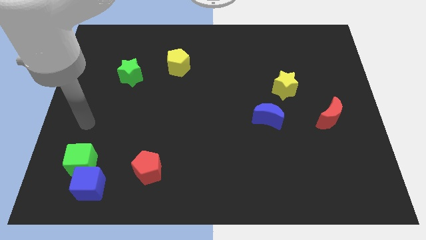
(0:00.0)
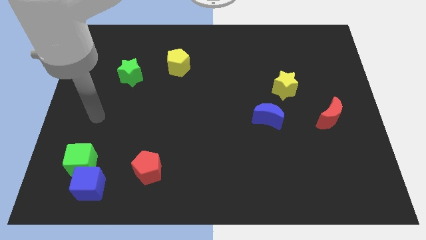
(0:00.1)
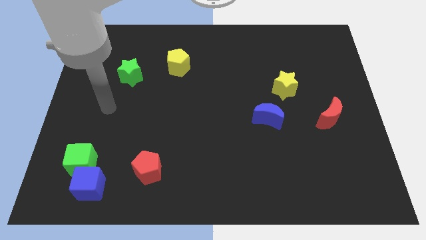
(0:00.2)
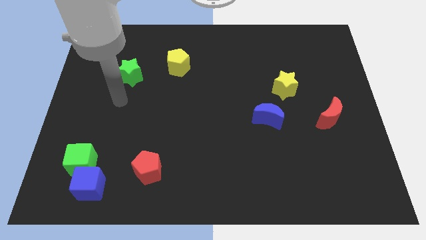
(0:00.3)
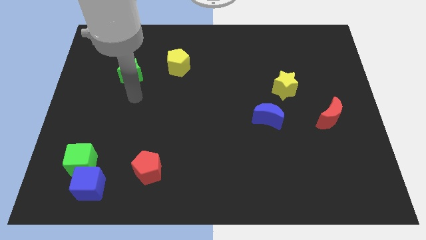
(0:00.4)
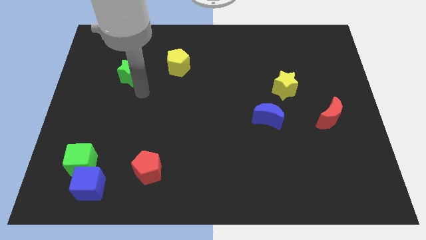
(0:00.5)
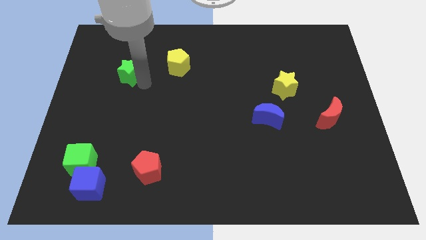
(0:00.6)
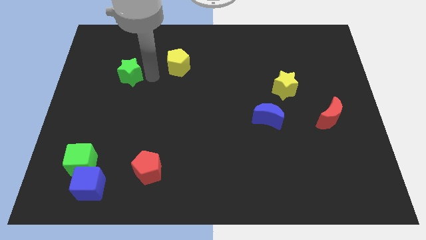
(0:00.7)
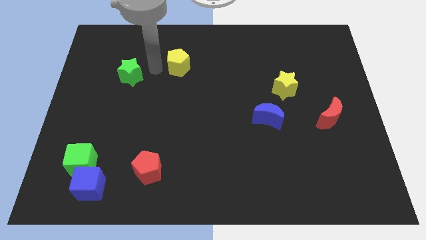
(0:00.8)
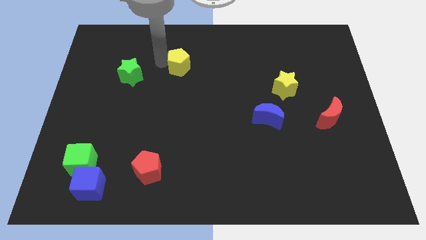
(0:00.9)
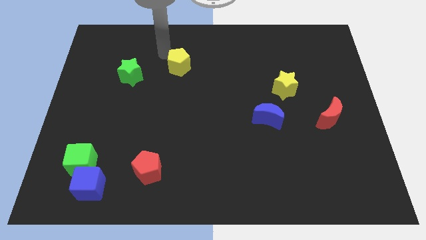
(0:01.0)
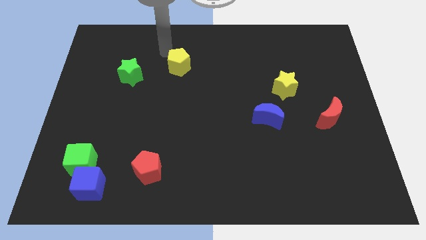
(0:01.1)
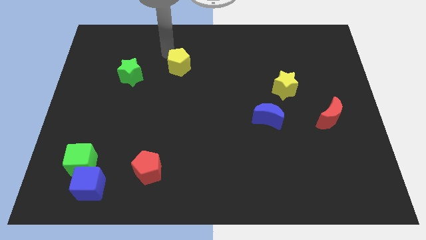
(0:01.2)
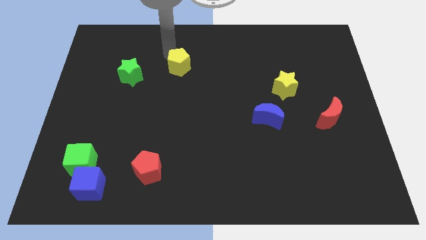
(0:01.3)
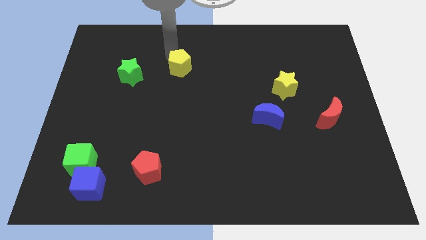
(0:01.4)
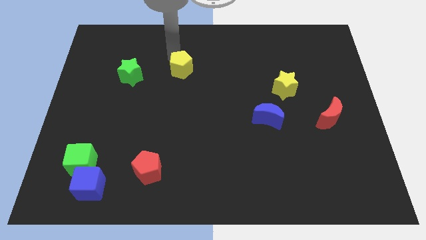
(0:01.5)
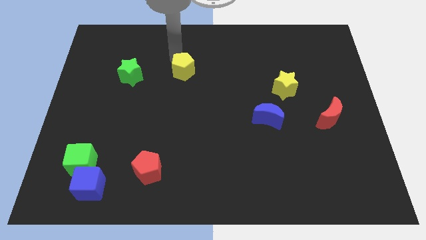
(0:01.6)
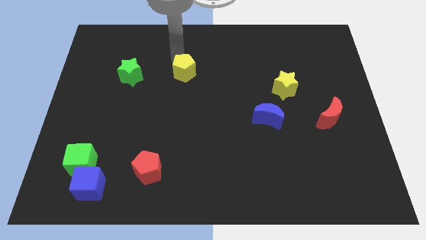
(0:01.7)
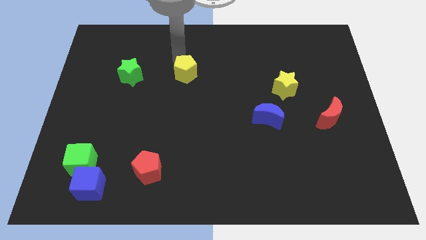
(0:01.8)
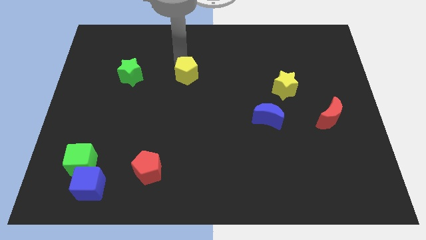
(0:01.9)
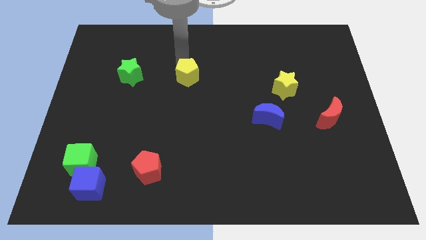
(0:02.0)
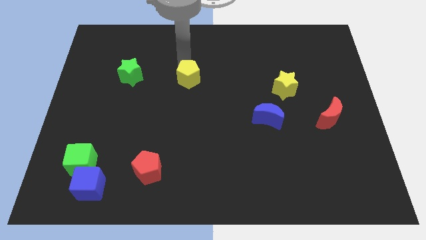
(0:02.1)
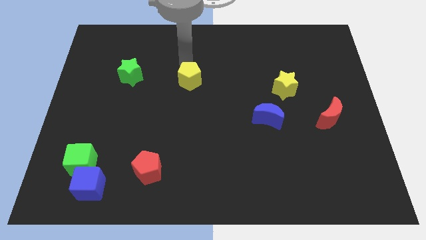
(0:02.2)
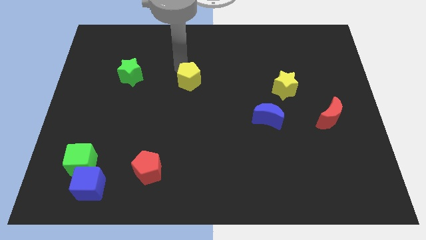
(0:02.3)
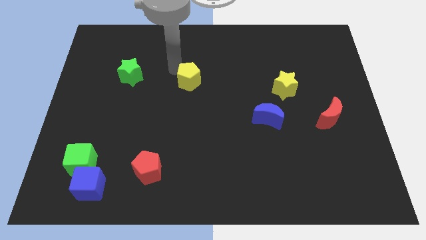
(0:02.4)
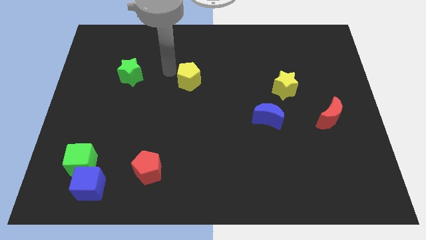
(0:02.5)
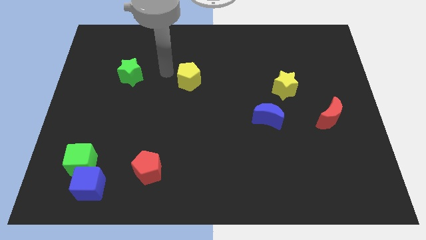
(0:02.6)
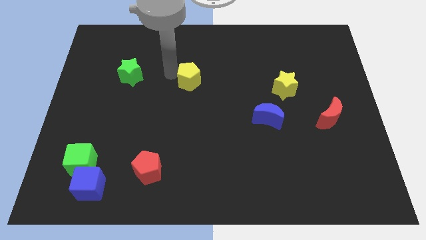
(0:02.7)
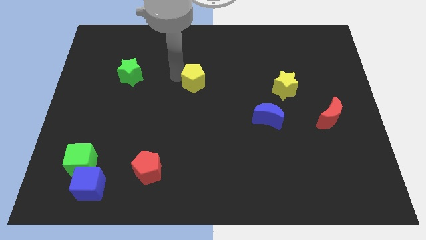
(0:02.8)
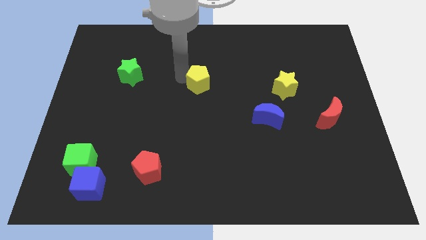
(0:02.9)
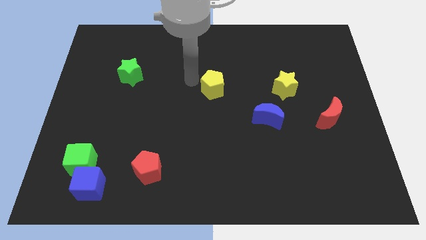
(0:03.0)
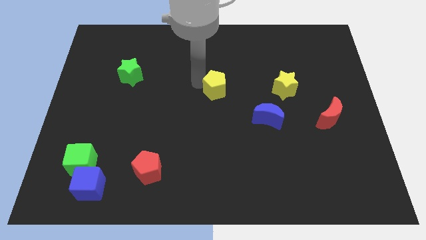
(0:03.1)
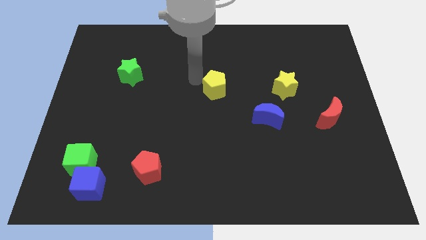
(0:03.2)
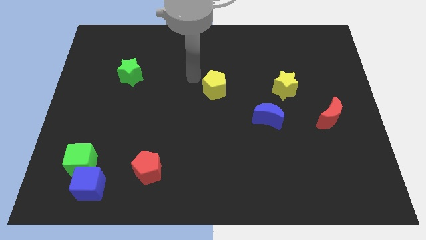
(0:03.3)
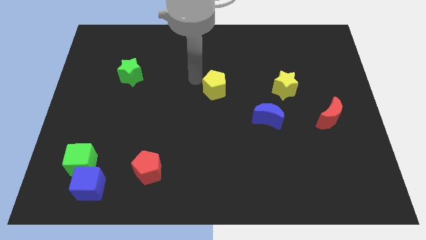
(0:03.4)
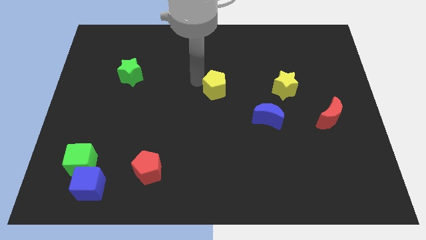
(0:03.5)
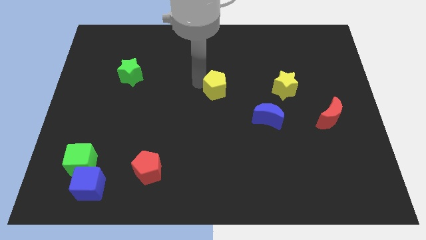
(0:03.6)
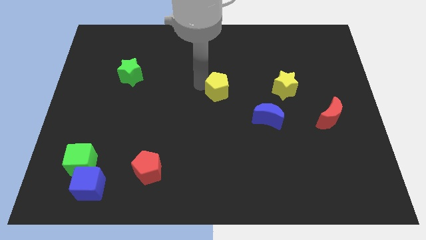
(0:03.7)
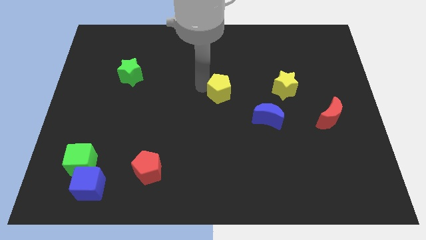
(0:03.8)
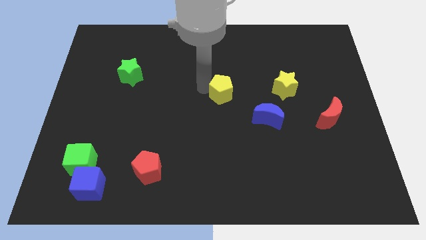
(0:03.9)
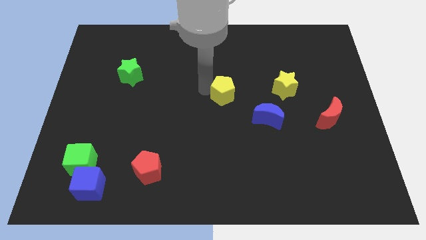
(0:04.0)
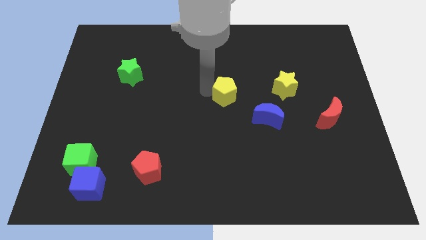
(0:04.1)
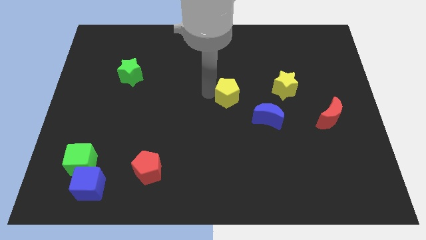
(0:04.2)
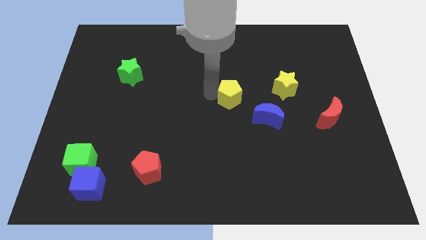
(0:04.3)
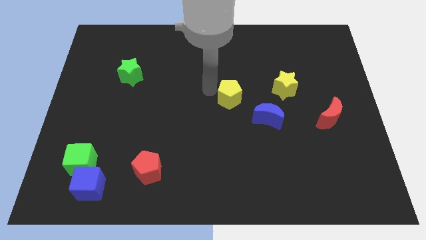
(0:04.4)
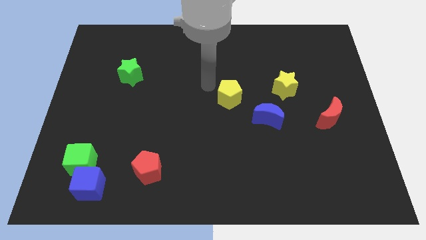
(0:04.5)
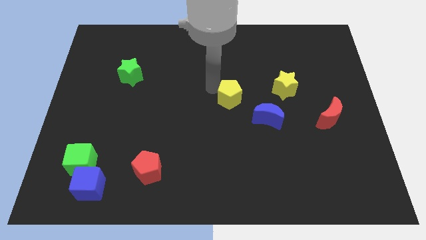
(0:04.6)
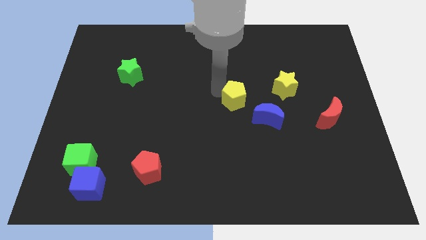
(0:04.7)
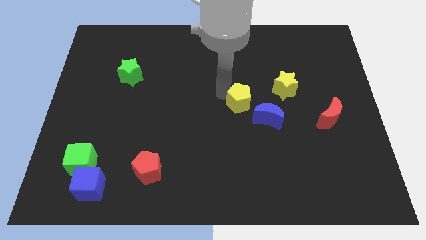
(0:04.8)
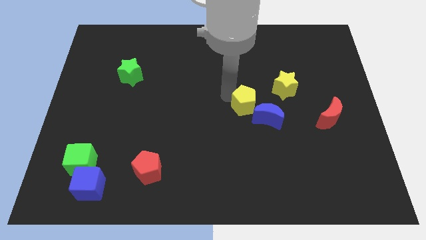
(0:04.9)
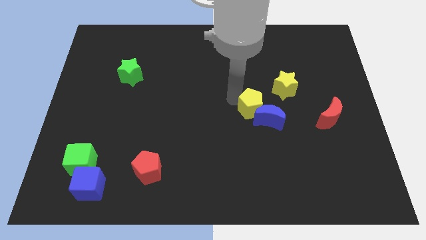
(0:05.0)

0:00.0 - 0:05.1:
put the yellow pentagon towards the blue moon

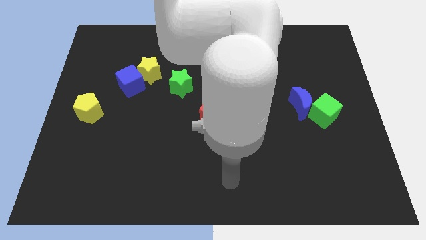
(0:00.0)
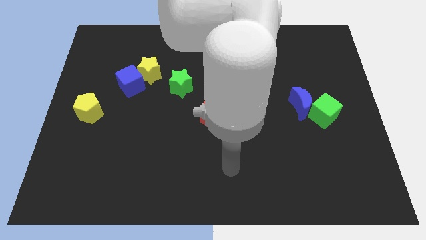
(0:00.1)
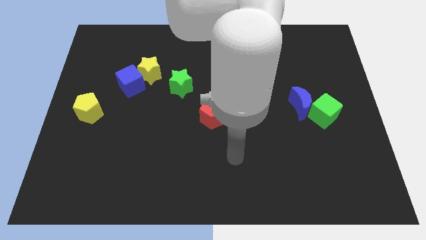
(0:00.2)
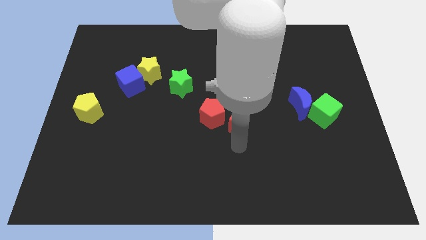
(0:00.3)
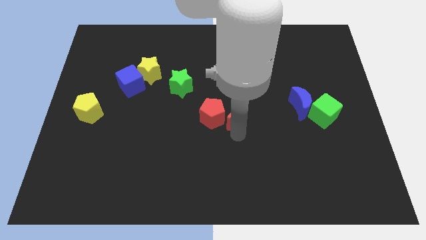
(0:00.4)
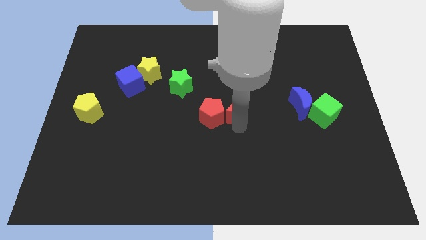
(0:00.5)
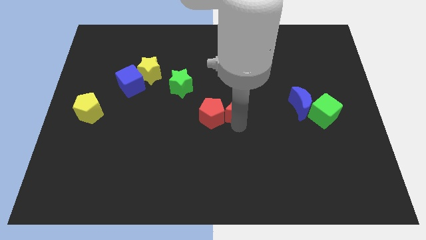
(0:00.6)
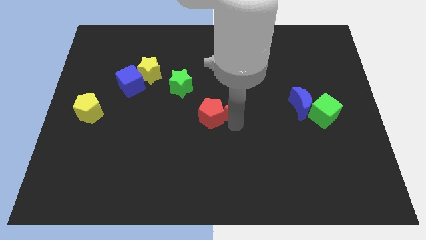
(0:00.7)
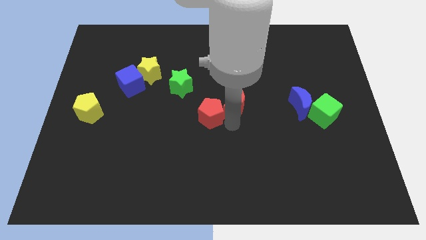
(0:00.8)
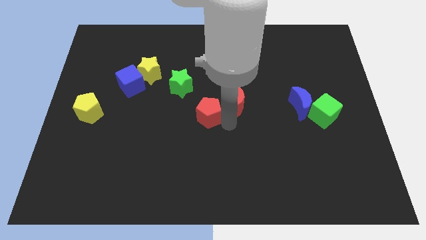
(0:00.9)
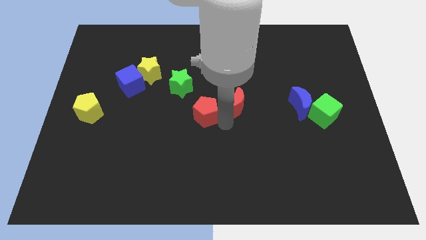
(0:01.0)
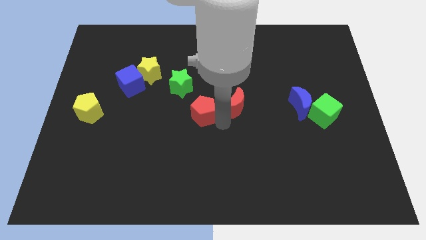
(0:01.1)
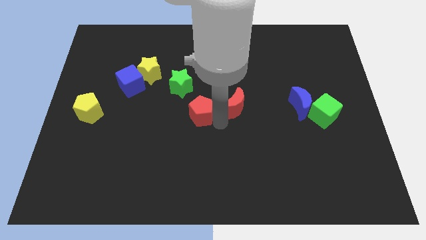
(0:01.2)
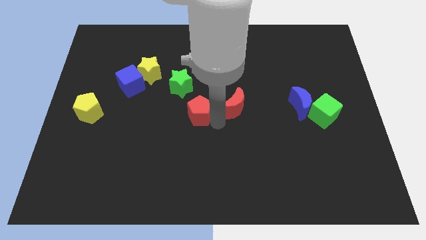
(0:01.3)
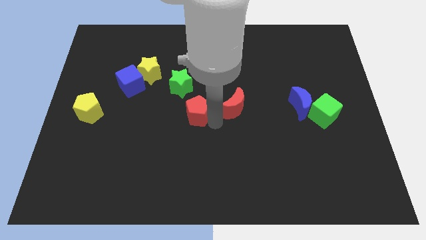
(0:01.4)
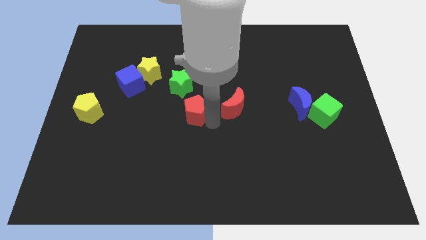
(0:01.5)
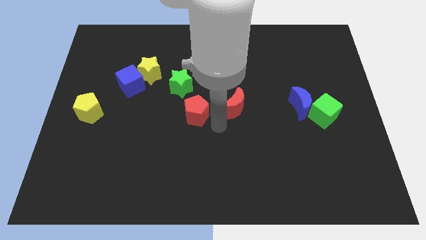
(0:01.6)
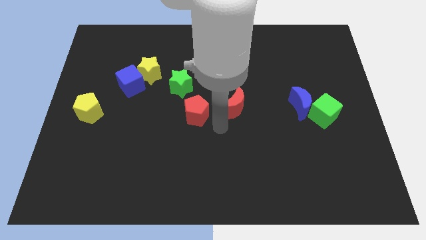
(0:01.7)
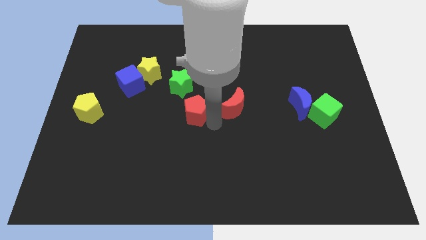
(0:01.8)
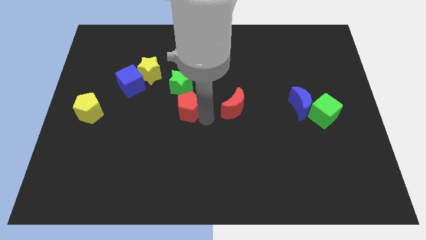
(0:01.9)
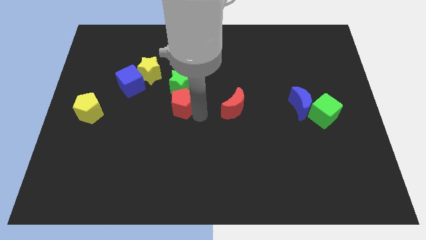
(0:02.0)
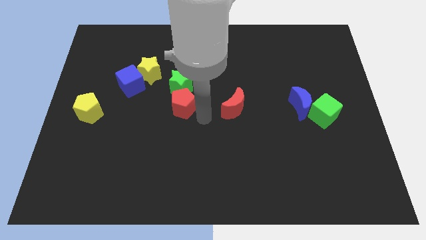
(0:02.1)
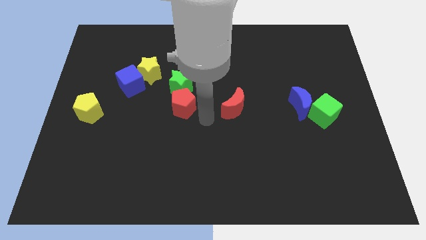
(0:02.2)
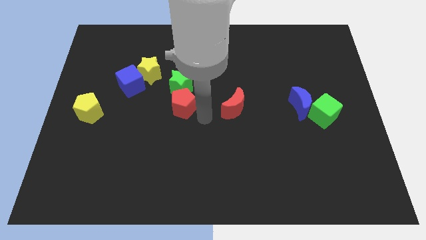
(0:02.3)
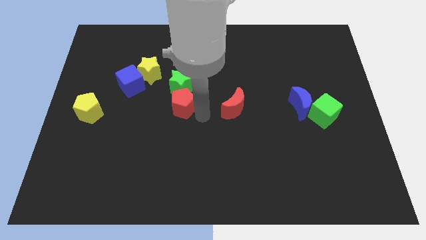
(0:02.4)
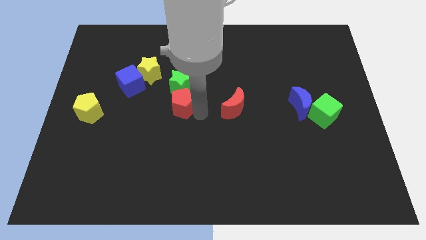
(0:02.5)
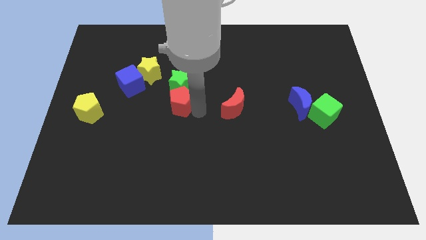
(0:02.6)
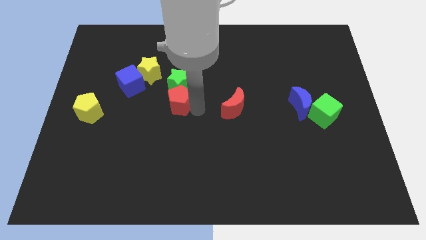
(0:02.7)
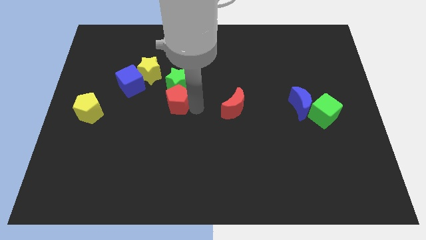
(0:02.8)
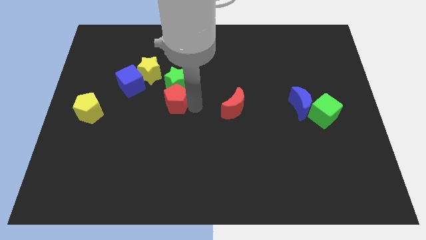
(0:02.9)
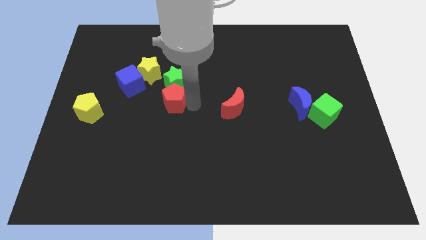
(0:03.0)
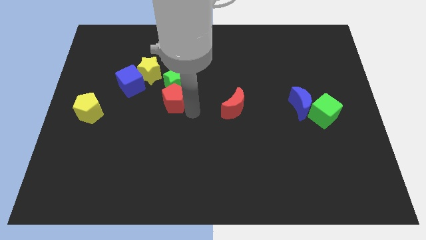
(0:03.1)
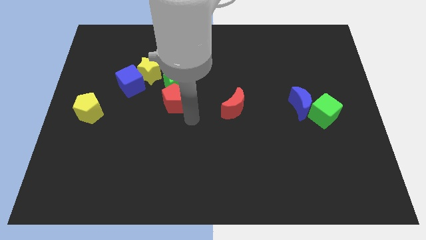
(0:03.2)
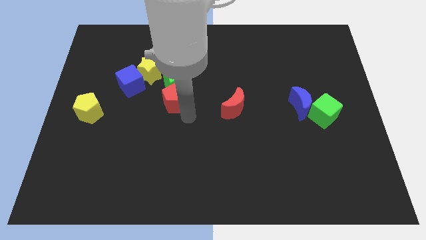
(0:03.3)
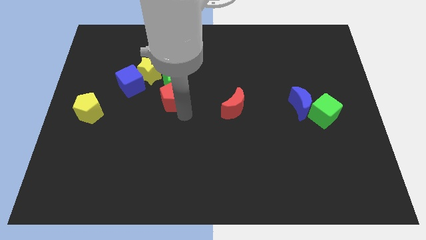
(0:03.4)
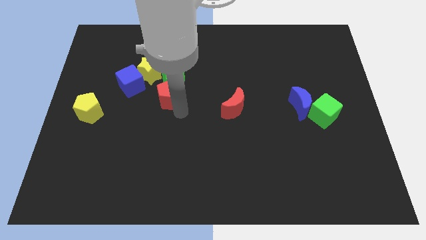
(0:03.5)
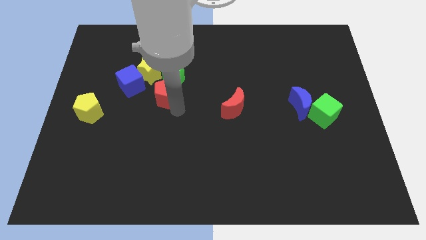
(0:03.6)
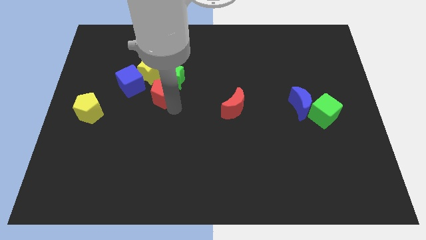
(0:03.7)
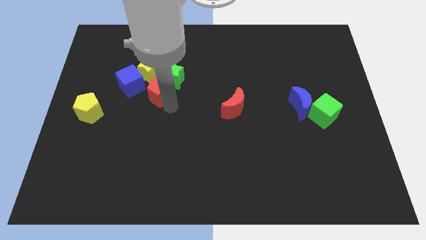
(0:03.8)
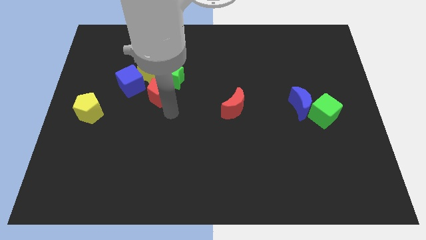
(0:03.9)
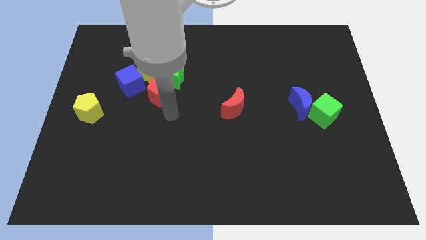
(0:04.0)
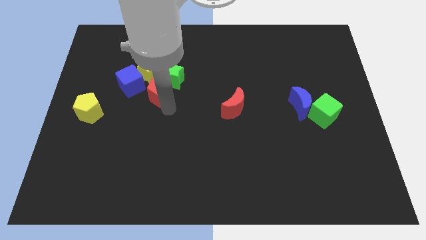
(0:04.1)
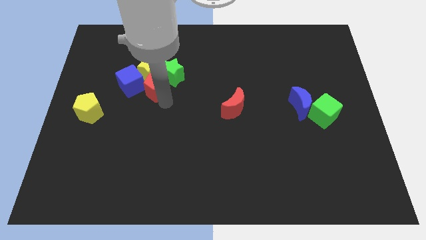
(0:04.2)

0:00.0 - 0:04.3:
move the red pentagon next to the yellow star
